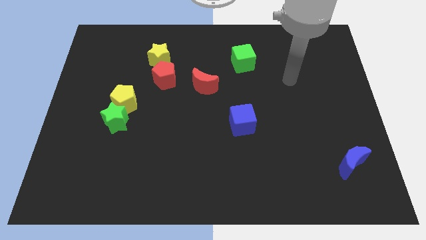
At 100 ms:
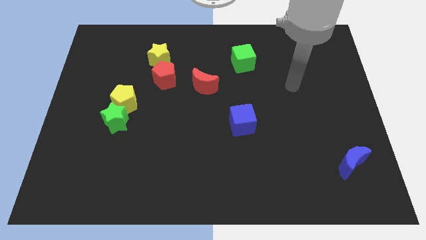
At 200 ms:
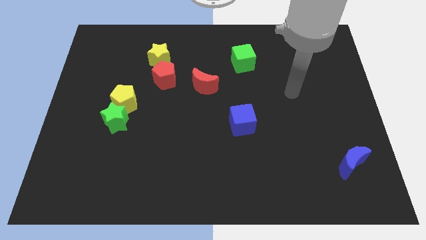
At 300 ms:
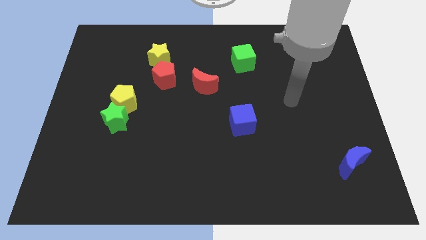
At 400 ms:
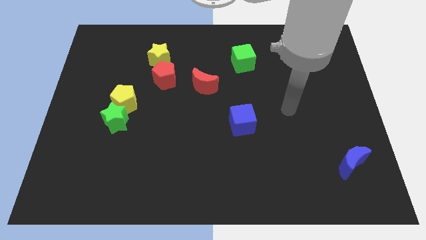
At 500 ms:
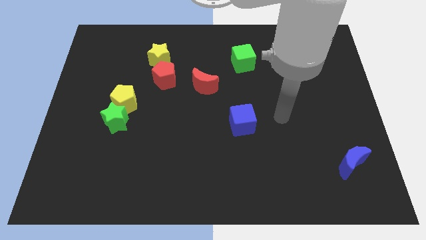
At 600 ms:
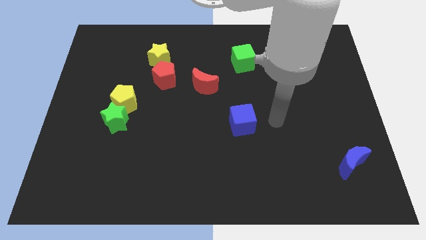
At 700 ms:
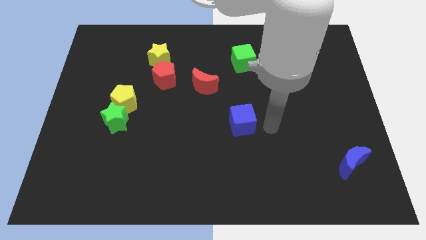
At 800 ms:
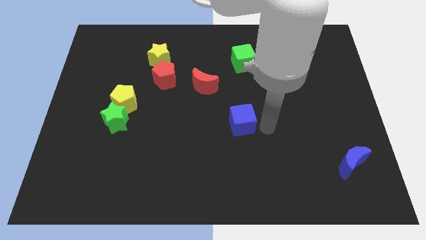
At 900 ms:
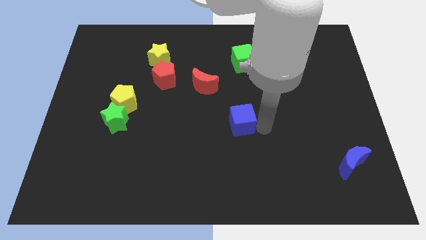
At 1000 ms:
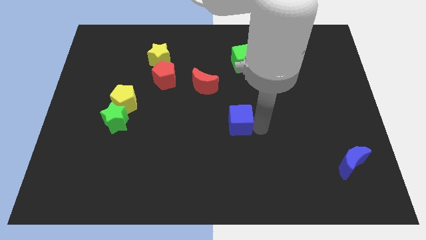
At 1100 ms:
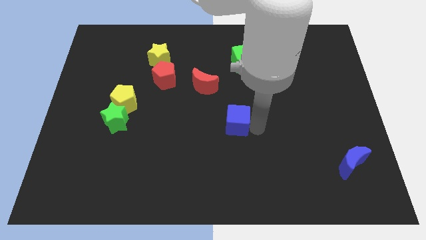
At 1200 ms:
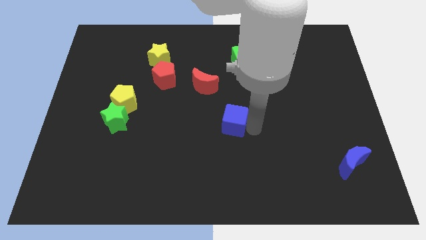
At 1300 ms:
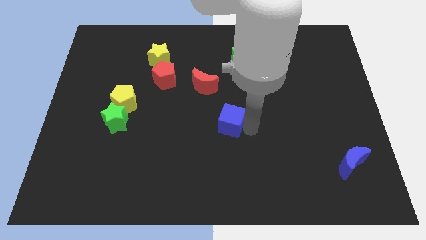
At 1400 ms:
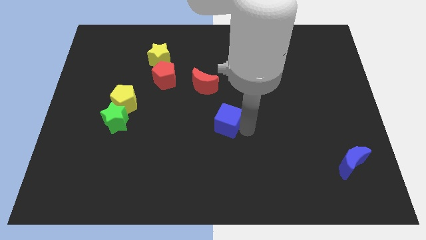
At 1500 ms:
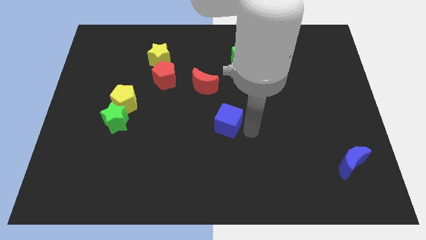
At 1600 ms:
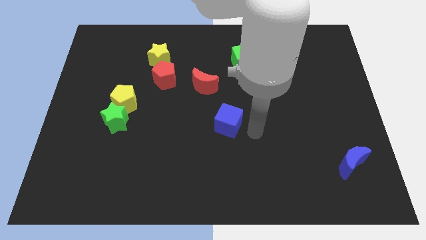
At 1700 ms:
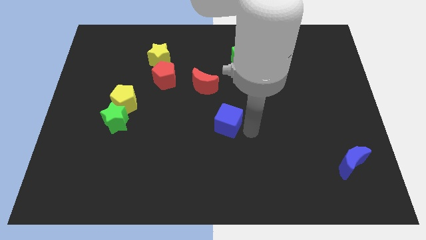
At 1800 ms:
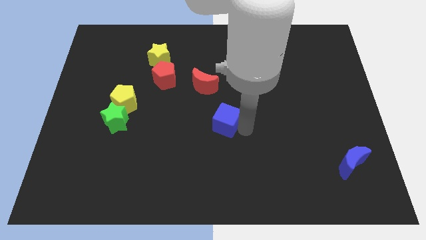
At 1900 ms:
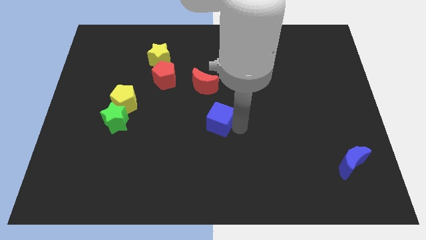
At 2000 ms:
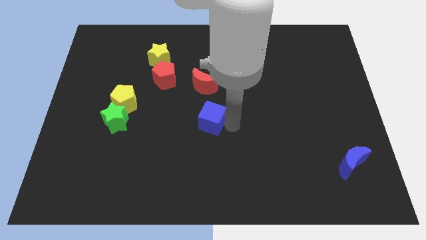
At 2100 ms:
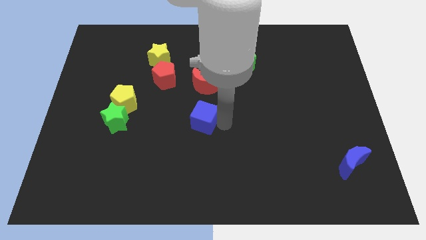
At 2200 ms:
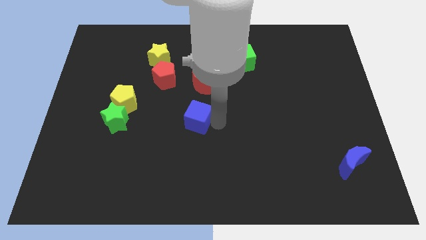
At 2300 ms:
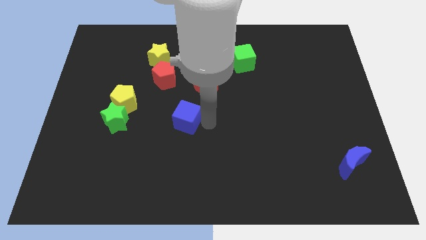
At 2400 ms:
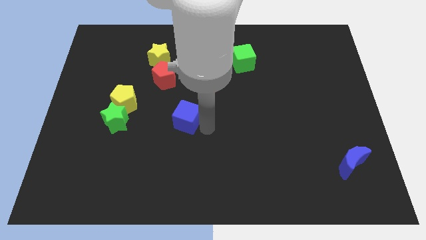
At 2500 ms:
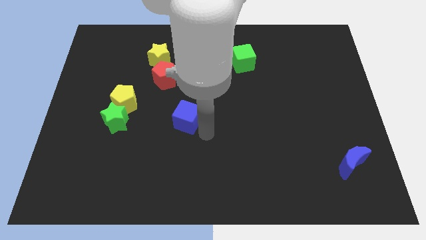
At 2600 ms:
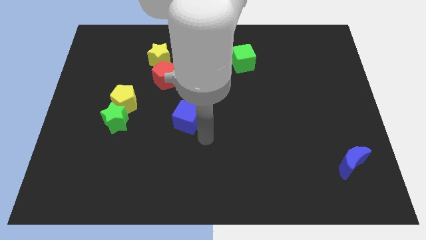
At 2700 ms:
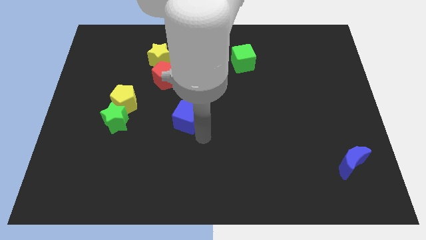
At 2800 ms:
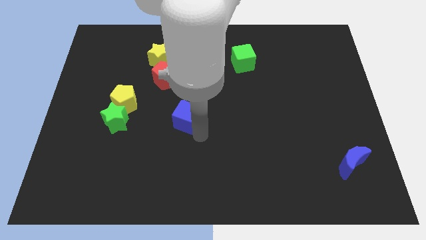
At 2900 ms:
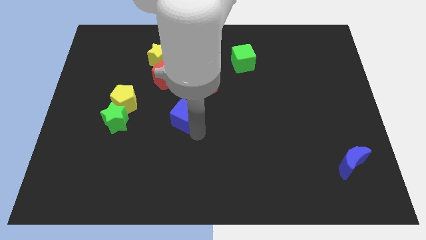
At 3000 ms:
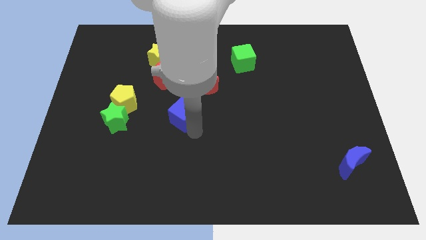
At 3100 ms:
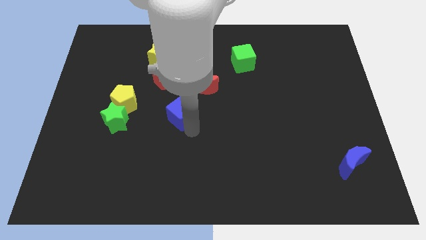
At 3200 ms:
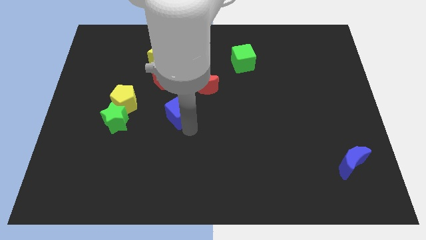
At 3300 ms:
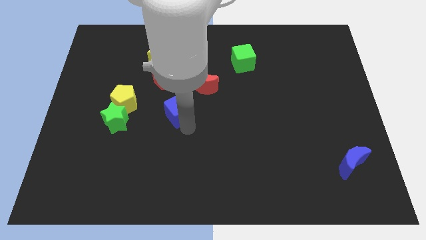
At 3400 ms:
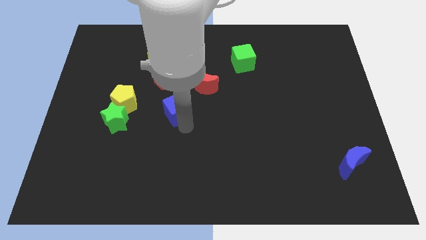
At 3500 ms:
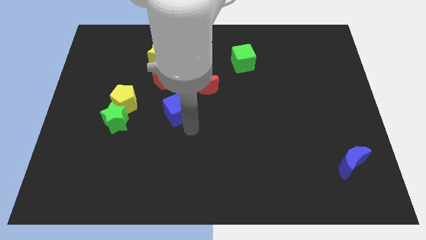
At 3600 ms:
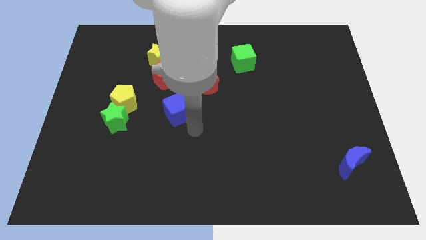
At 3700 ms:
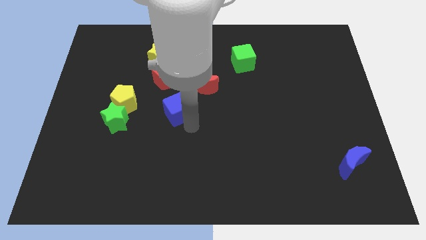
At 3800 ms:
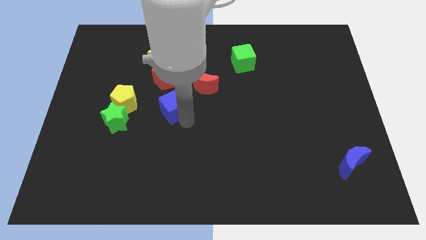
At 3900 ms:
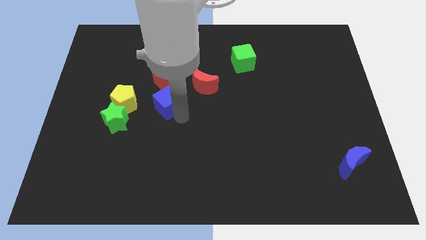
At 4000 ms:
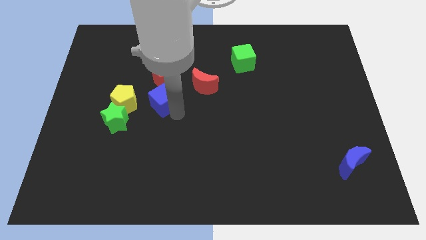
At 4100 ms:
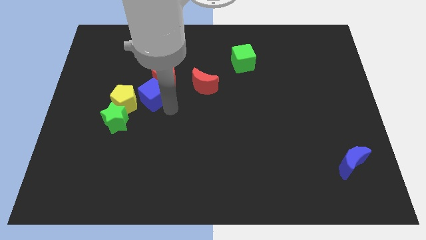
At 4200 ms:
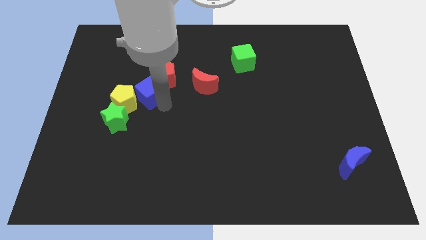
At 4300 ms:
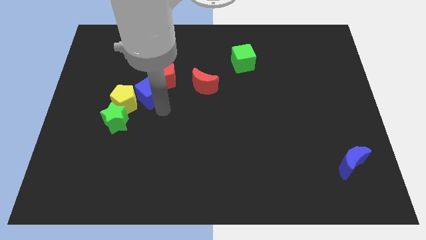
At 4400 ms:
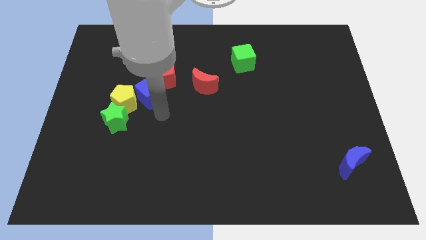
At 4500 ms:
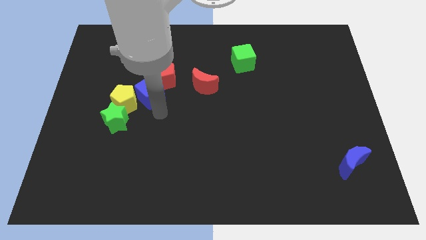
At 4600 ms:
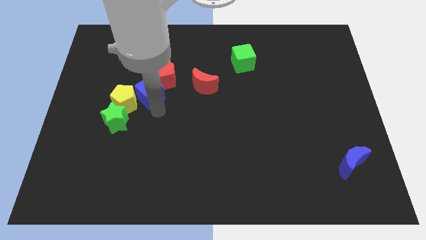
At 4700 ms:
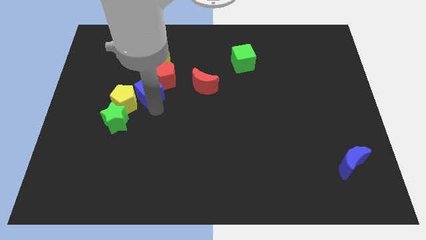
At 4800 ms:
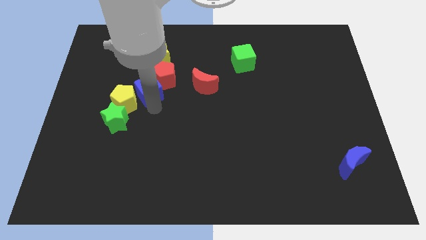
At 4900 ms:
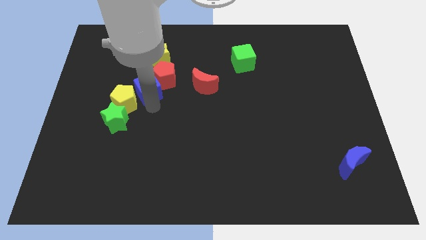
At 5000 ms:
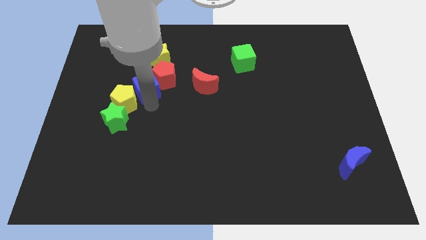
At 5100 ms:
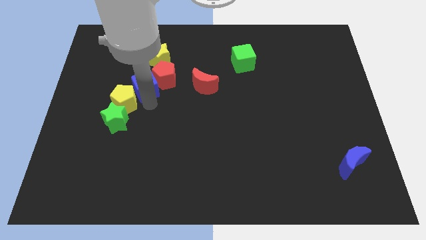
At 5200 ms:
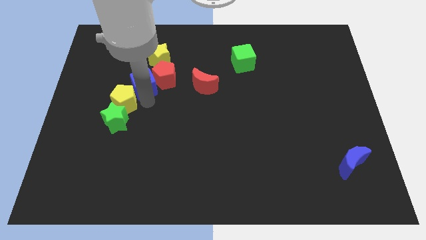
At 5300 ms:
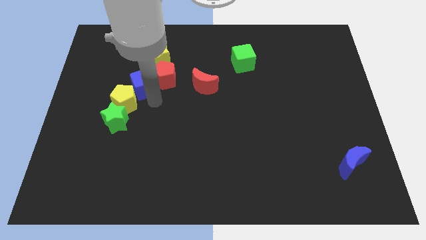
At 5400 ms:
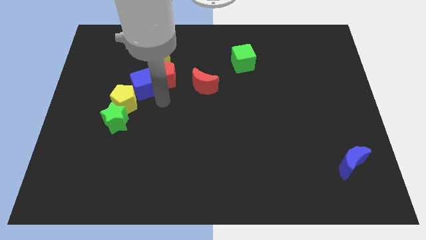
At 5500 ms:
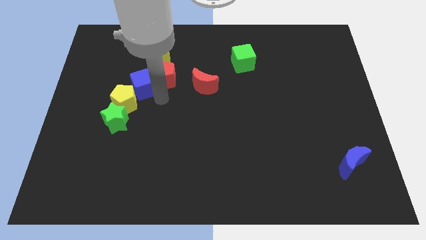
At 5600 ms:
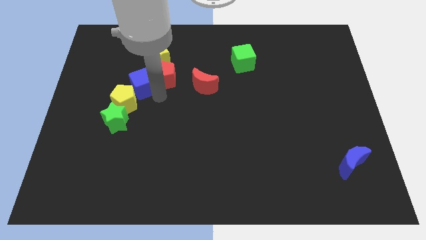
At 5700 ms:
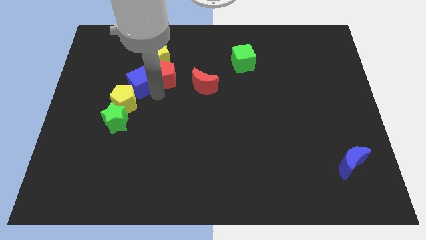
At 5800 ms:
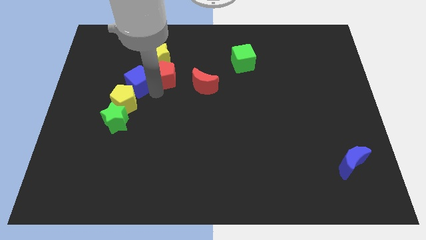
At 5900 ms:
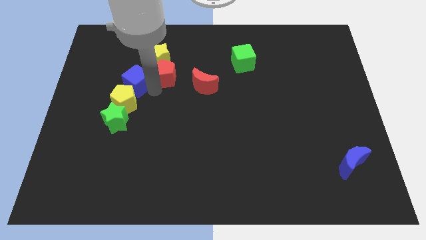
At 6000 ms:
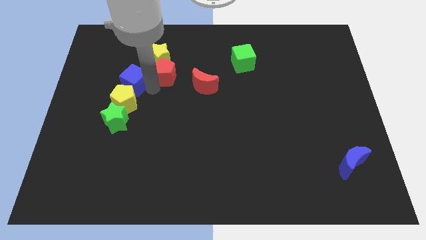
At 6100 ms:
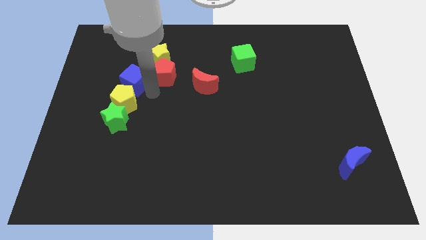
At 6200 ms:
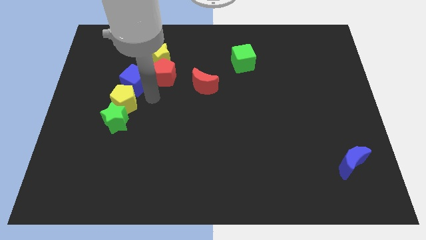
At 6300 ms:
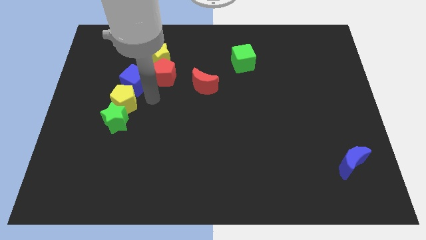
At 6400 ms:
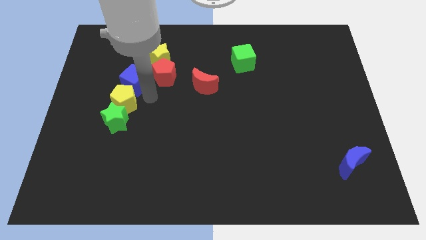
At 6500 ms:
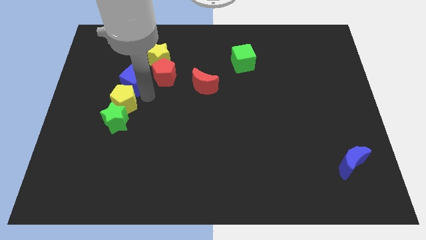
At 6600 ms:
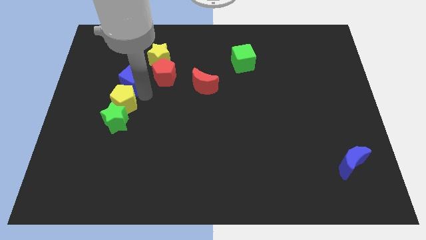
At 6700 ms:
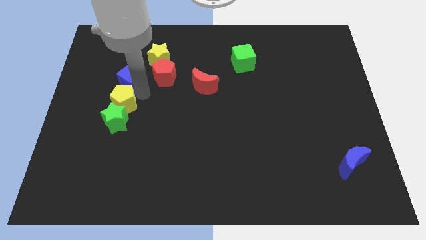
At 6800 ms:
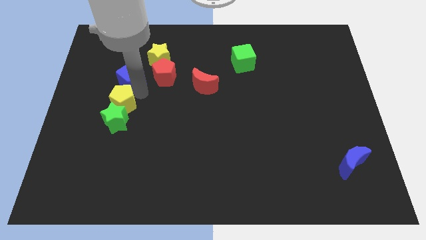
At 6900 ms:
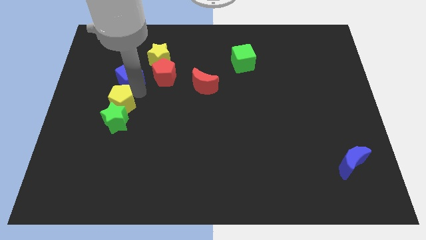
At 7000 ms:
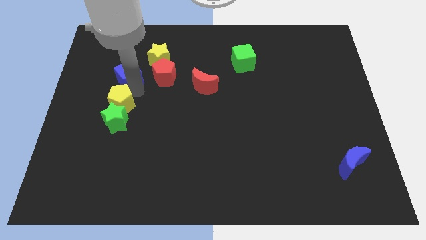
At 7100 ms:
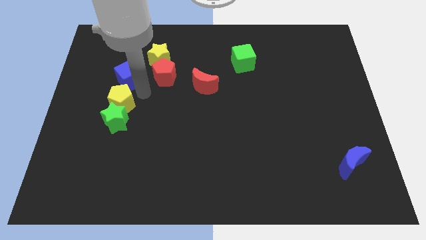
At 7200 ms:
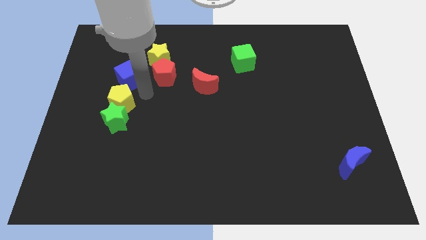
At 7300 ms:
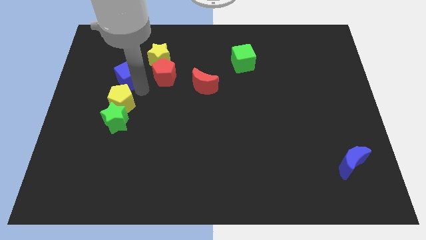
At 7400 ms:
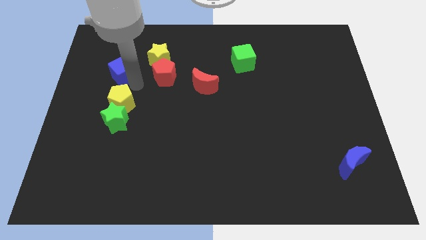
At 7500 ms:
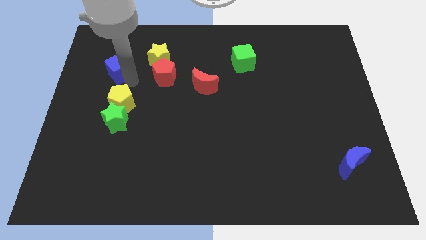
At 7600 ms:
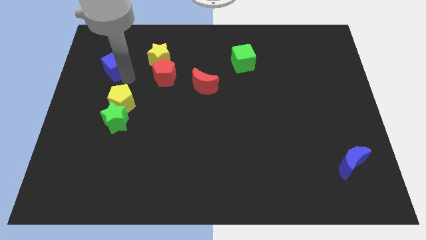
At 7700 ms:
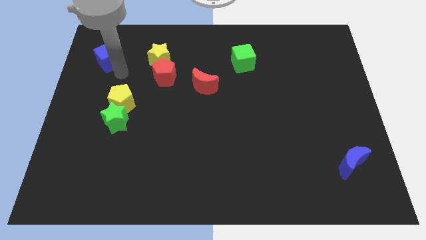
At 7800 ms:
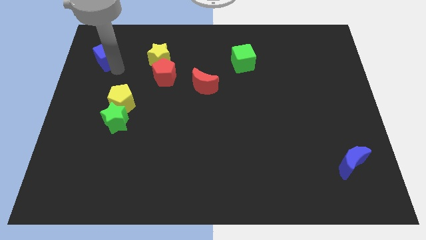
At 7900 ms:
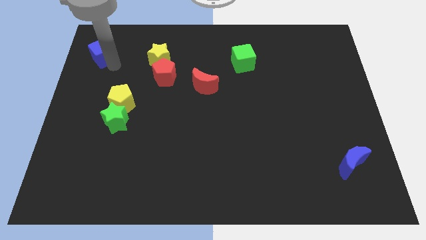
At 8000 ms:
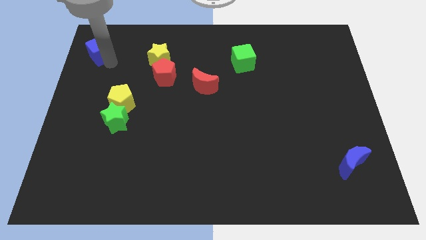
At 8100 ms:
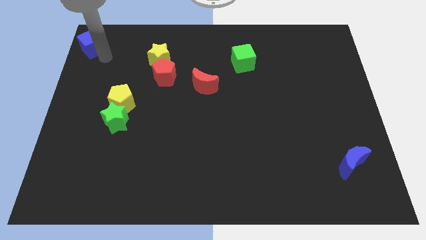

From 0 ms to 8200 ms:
put the blue cube to the upper left corner
